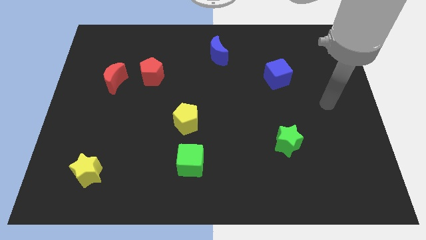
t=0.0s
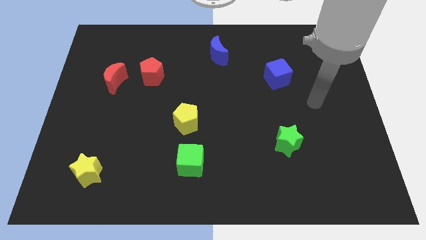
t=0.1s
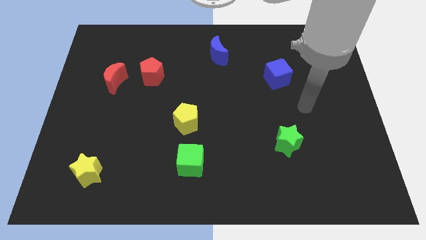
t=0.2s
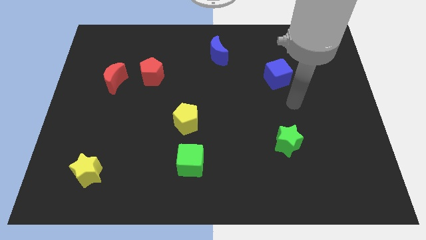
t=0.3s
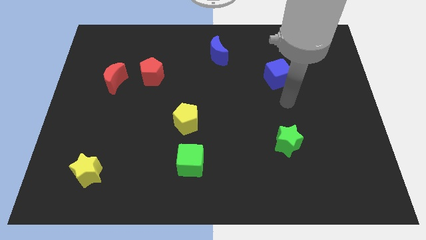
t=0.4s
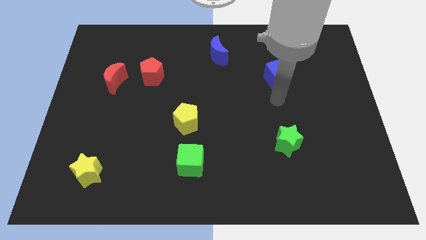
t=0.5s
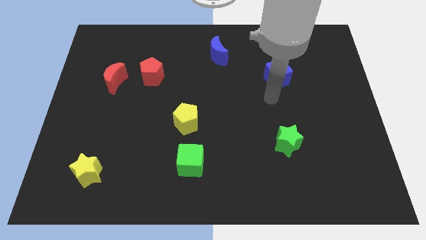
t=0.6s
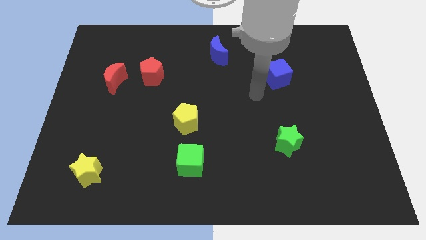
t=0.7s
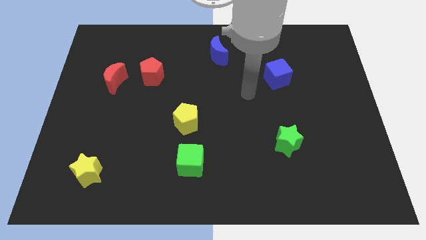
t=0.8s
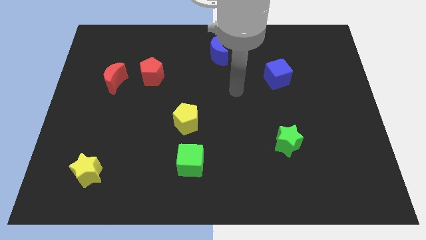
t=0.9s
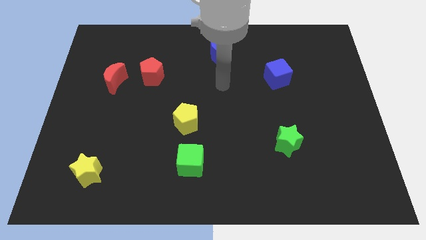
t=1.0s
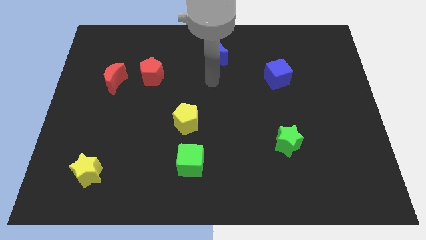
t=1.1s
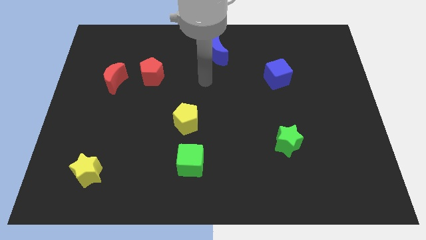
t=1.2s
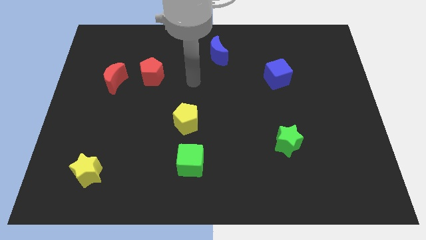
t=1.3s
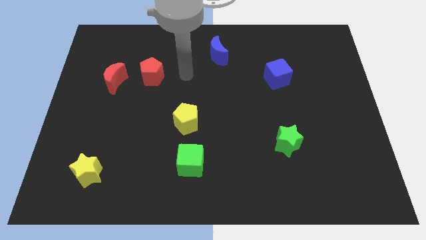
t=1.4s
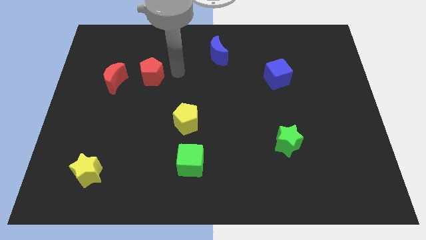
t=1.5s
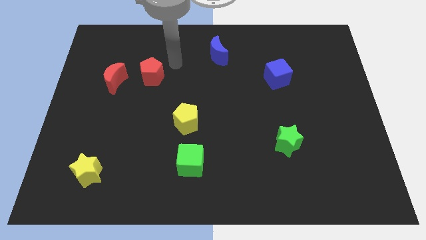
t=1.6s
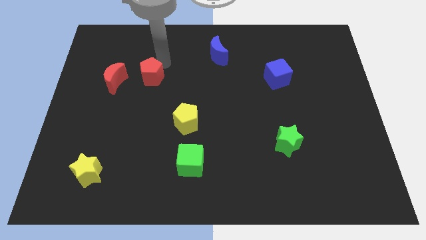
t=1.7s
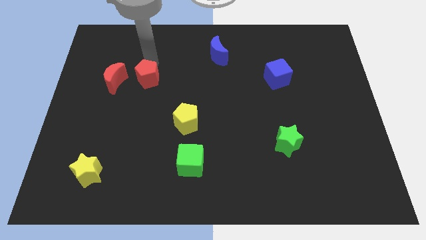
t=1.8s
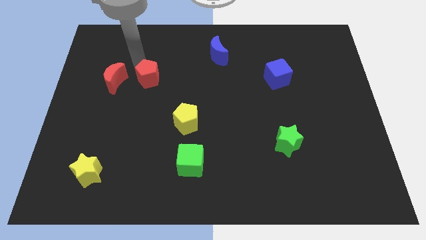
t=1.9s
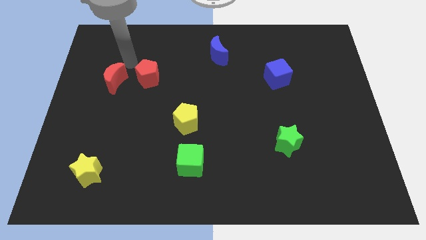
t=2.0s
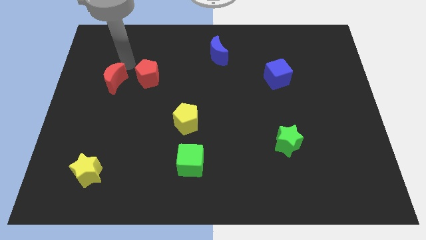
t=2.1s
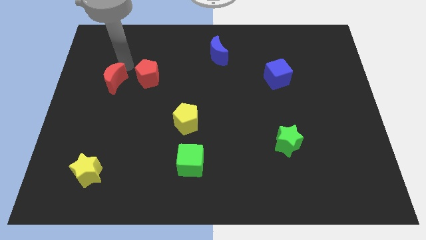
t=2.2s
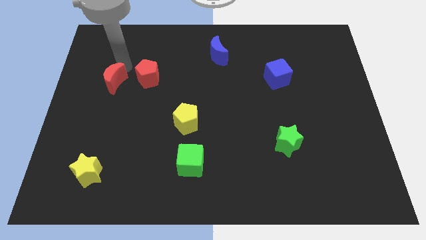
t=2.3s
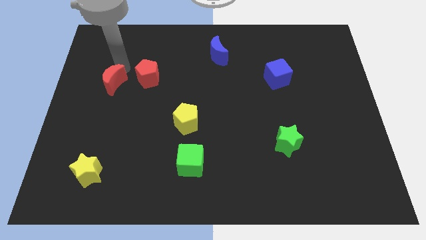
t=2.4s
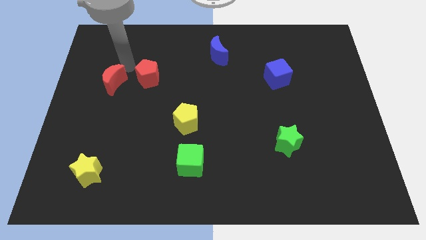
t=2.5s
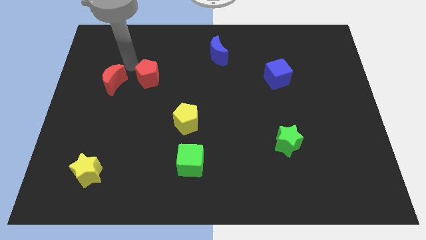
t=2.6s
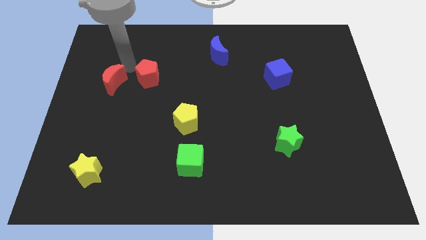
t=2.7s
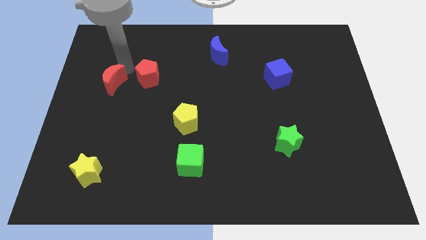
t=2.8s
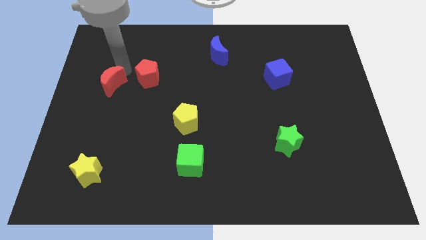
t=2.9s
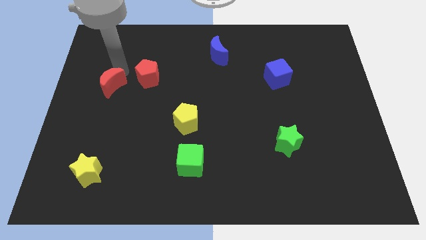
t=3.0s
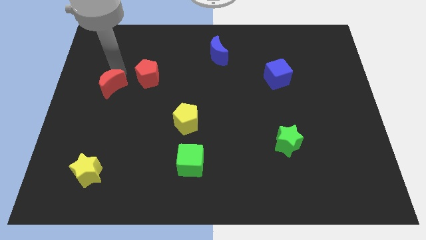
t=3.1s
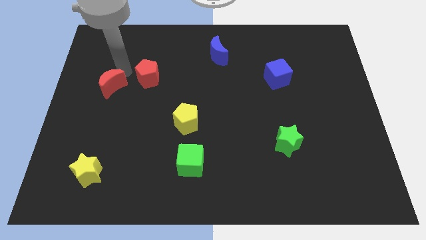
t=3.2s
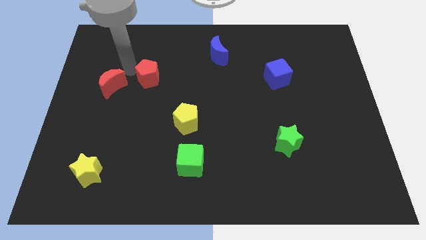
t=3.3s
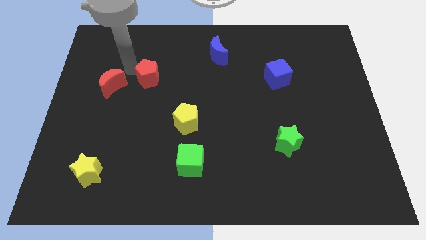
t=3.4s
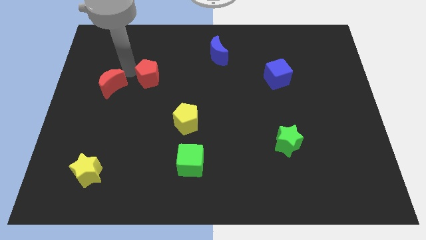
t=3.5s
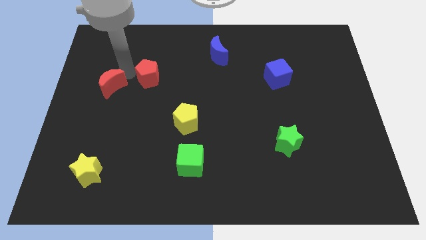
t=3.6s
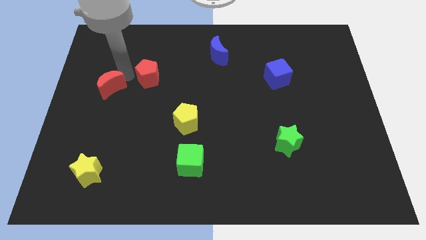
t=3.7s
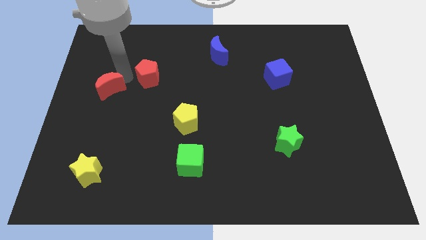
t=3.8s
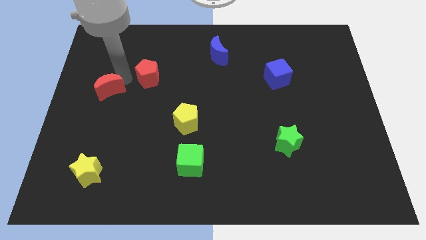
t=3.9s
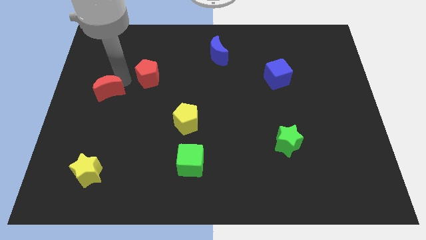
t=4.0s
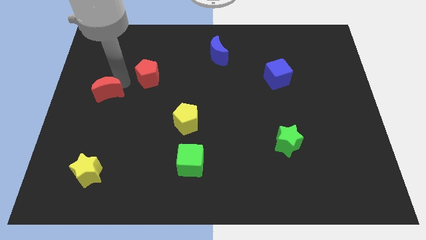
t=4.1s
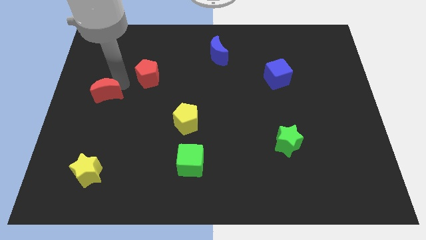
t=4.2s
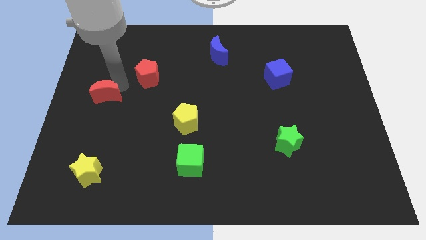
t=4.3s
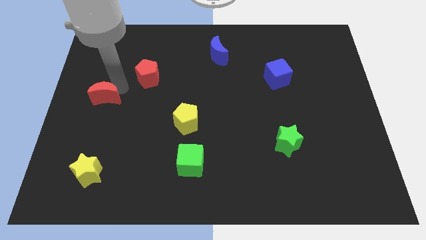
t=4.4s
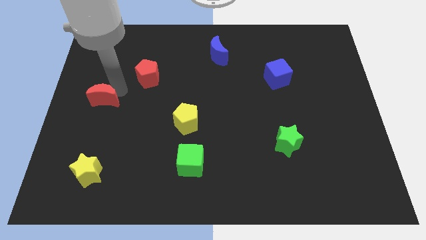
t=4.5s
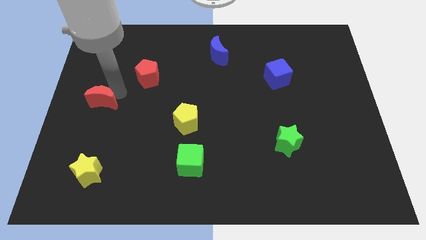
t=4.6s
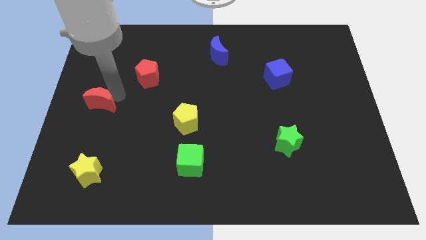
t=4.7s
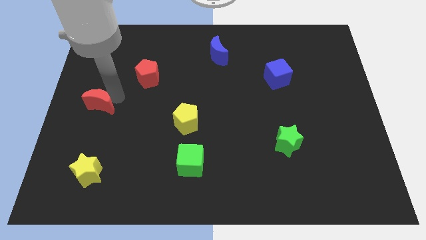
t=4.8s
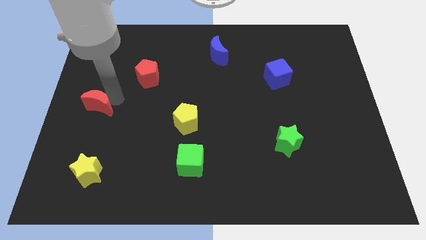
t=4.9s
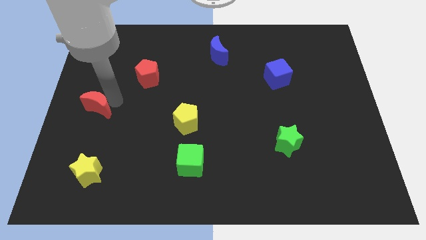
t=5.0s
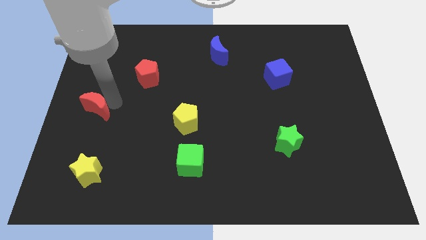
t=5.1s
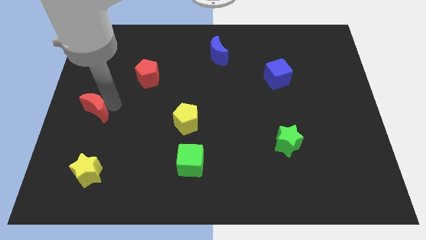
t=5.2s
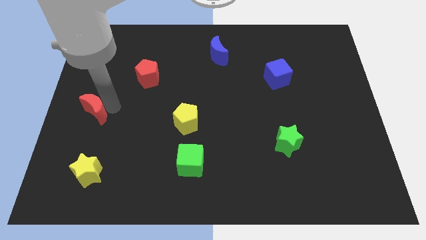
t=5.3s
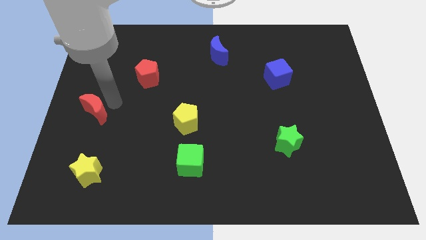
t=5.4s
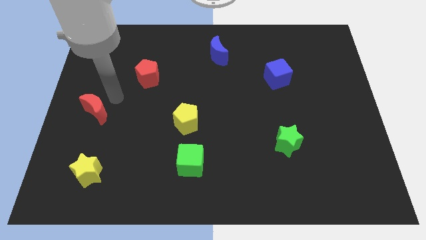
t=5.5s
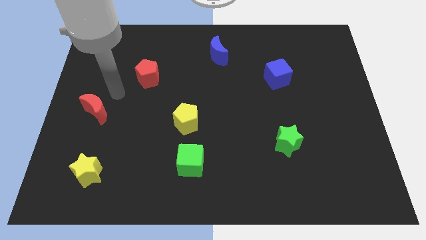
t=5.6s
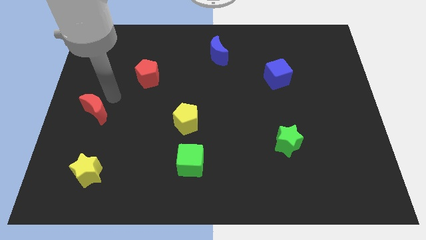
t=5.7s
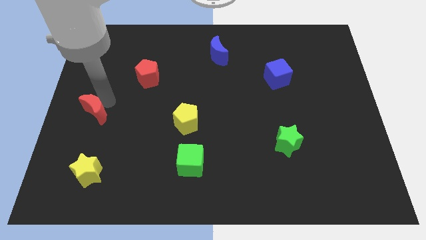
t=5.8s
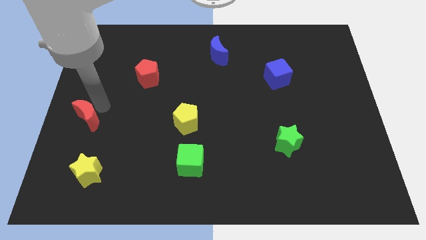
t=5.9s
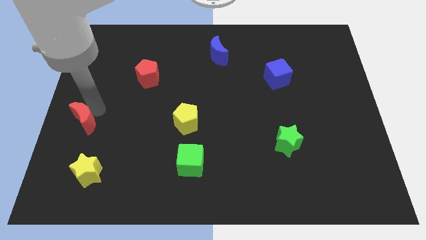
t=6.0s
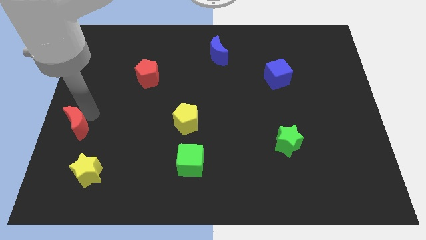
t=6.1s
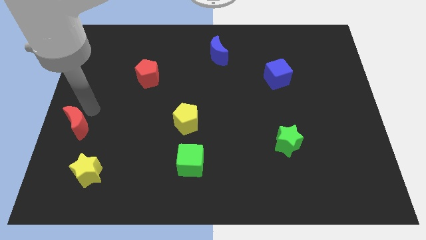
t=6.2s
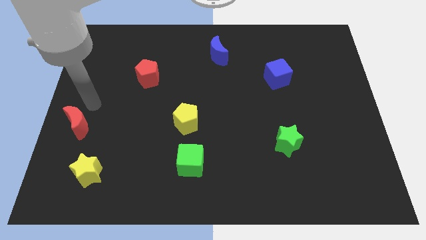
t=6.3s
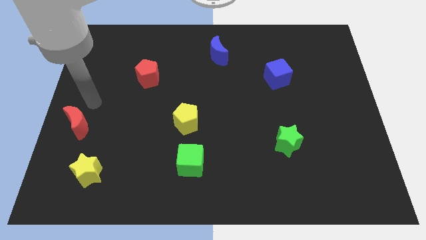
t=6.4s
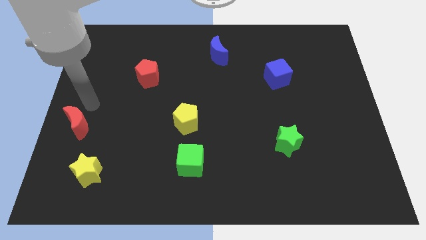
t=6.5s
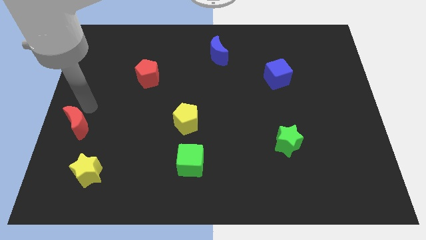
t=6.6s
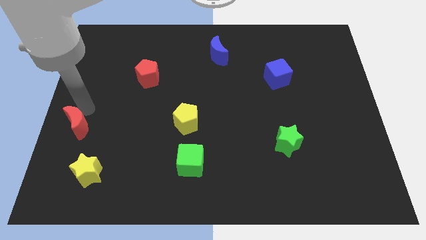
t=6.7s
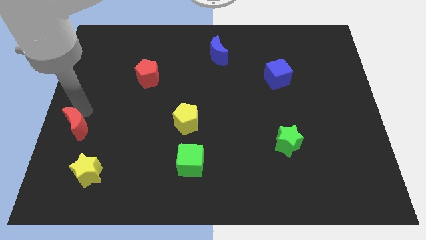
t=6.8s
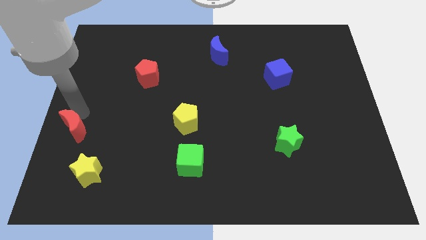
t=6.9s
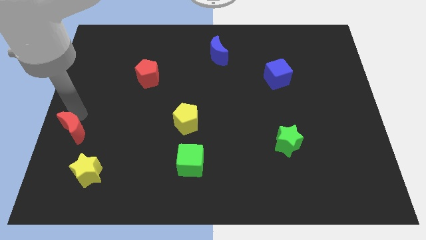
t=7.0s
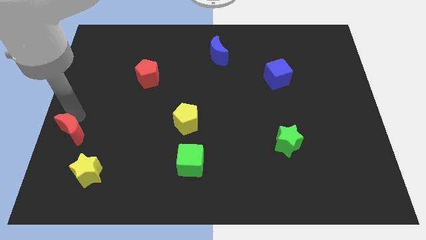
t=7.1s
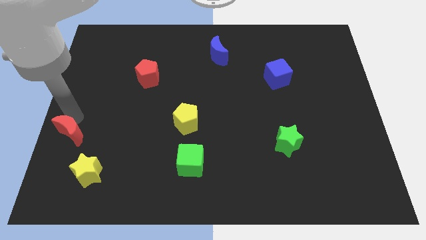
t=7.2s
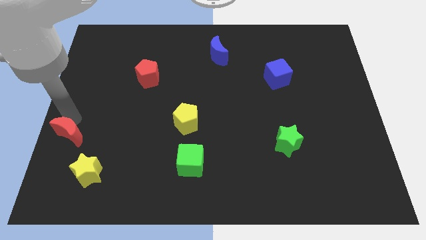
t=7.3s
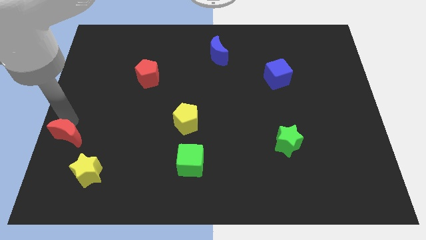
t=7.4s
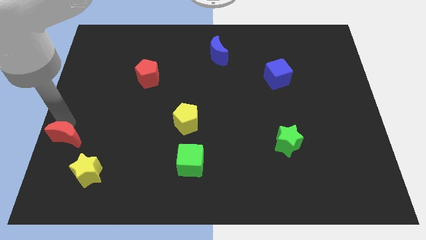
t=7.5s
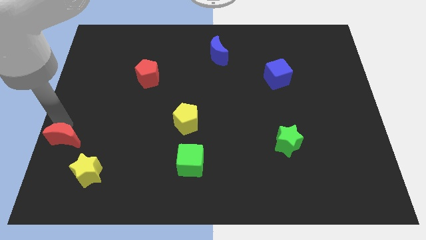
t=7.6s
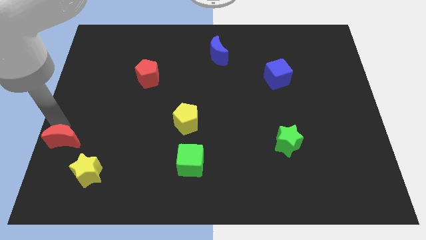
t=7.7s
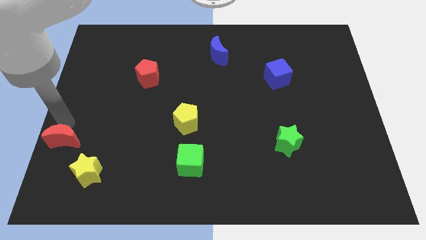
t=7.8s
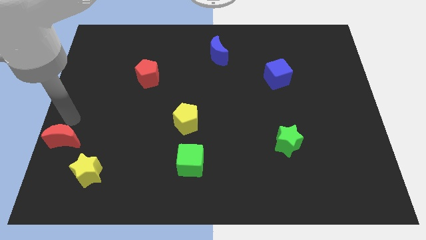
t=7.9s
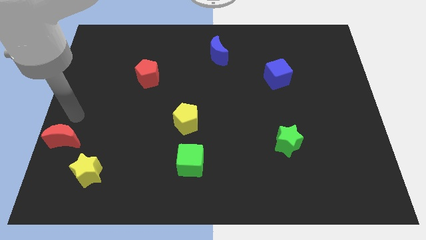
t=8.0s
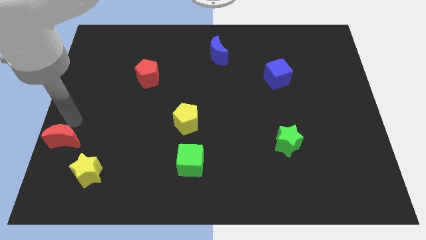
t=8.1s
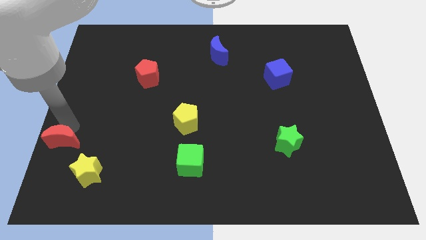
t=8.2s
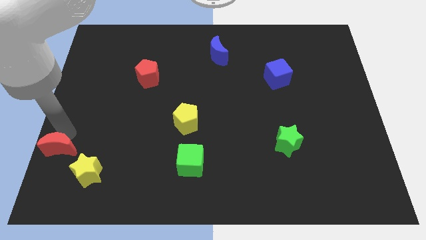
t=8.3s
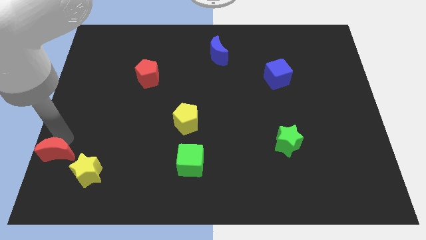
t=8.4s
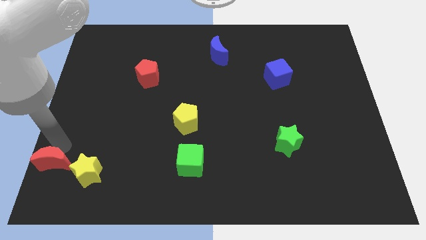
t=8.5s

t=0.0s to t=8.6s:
slide the red moon to the bottom left of the board
